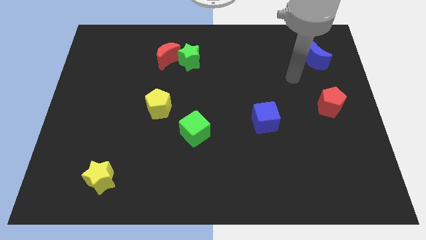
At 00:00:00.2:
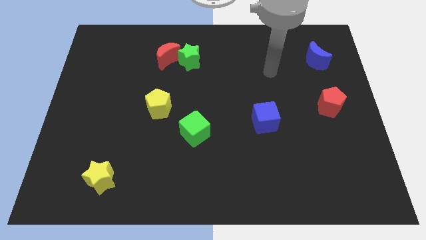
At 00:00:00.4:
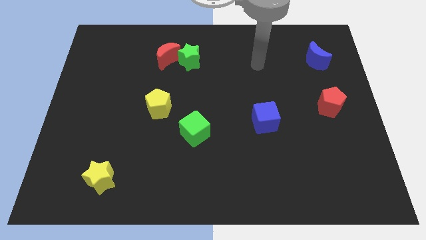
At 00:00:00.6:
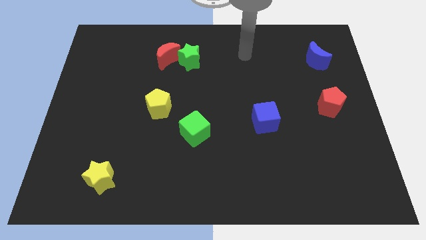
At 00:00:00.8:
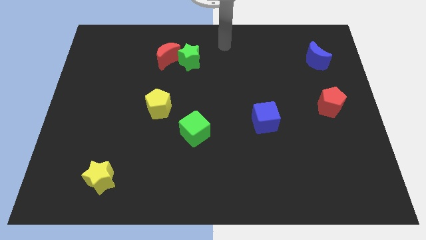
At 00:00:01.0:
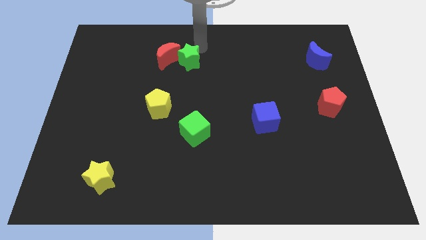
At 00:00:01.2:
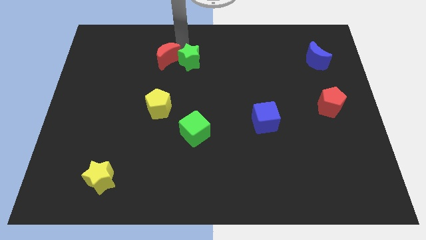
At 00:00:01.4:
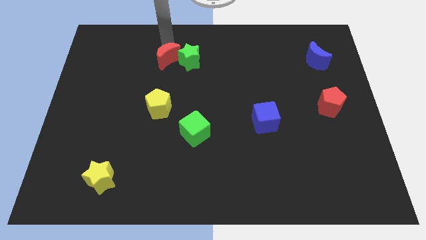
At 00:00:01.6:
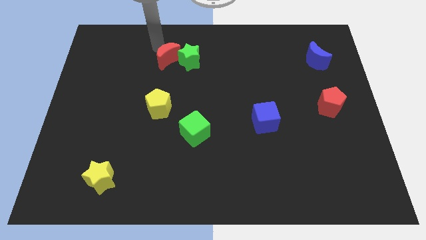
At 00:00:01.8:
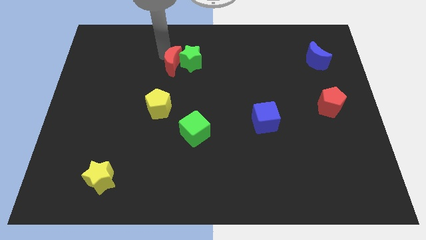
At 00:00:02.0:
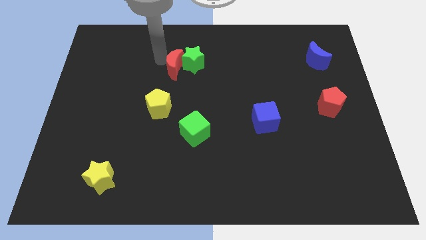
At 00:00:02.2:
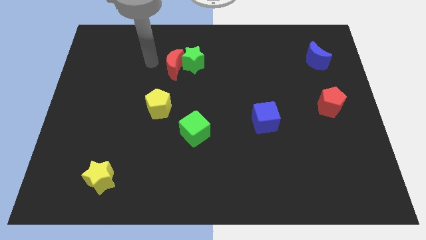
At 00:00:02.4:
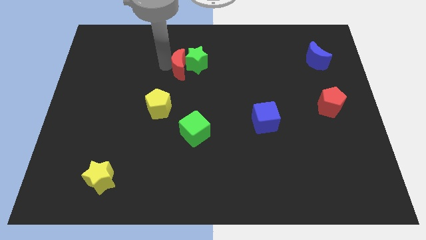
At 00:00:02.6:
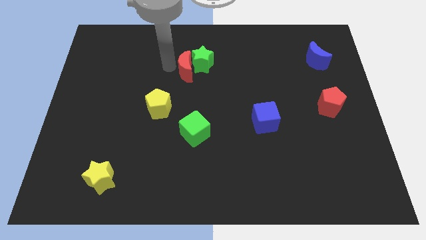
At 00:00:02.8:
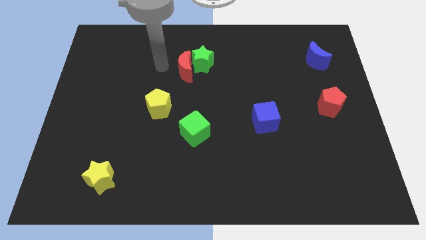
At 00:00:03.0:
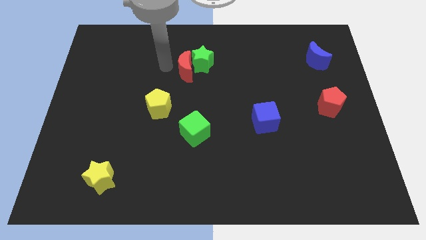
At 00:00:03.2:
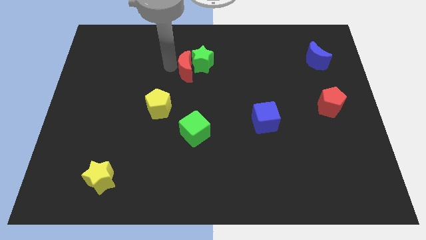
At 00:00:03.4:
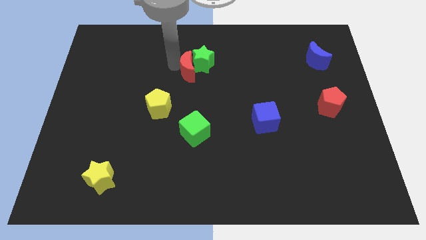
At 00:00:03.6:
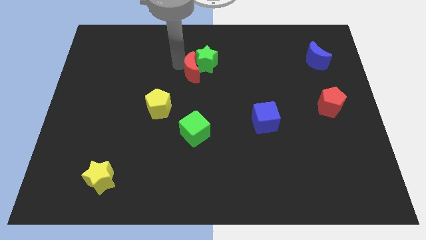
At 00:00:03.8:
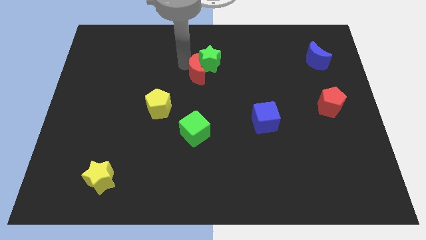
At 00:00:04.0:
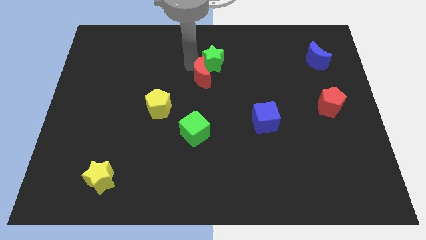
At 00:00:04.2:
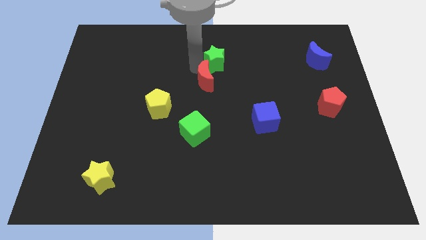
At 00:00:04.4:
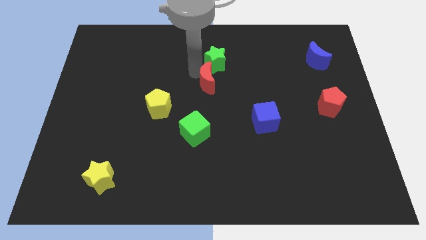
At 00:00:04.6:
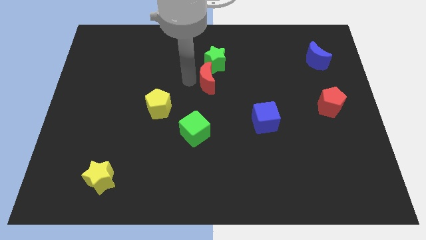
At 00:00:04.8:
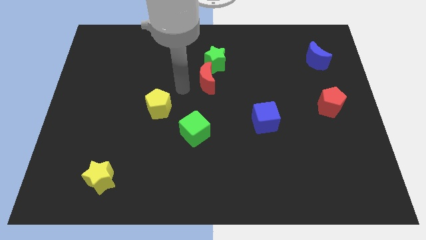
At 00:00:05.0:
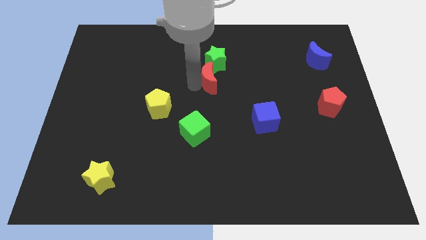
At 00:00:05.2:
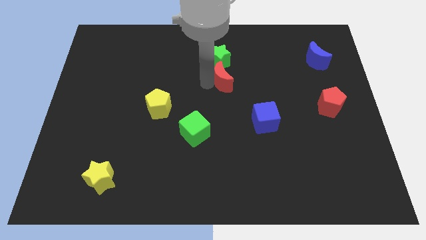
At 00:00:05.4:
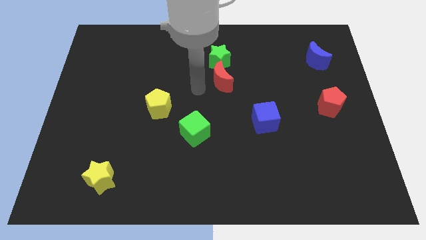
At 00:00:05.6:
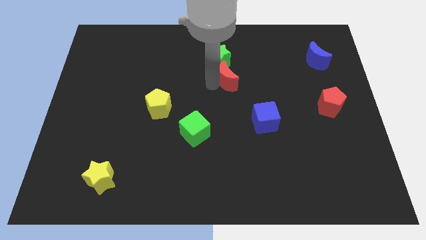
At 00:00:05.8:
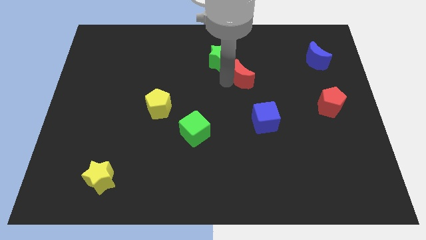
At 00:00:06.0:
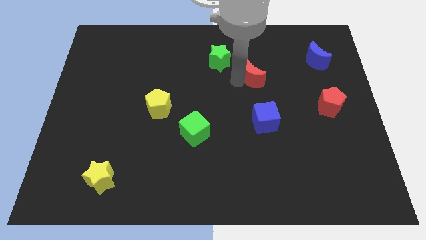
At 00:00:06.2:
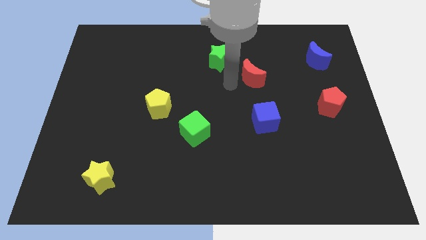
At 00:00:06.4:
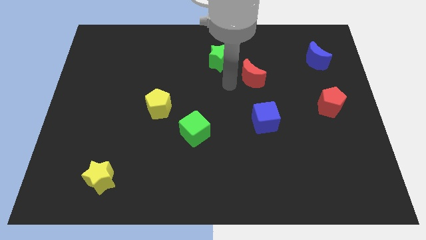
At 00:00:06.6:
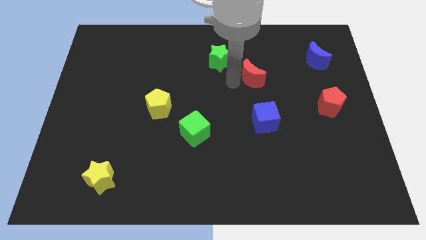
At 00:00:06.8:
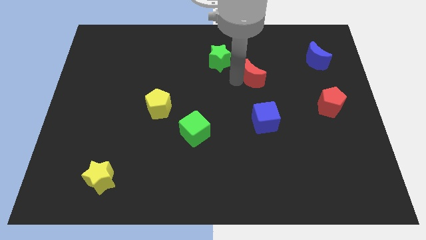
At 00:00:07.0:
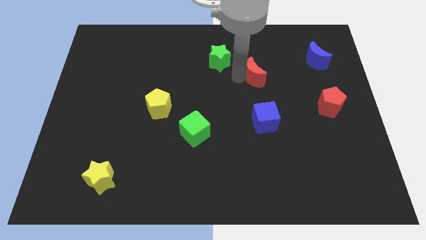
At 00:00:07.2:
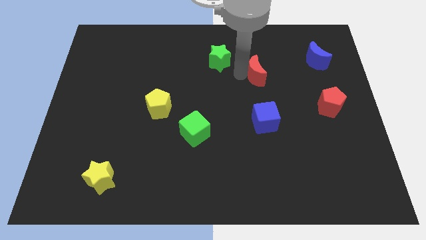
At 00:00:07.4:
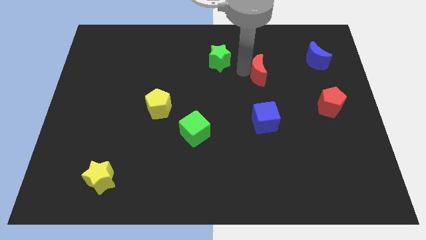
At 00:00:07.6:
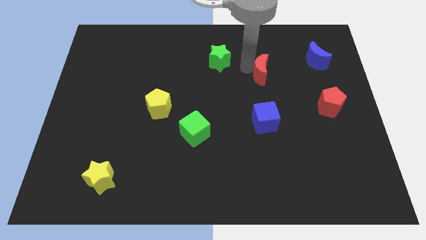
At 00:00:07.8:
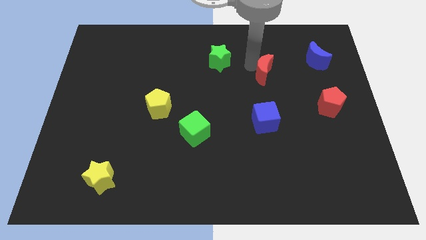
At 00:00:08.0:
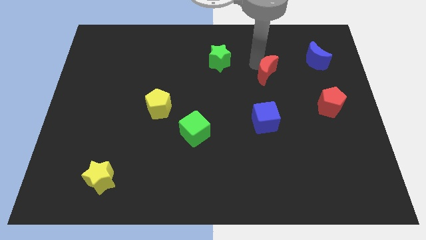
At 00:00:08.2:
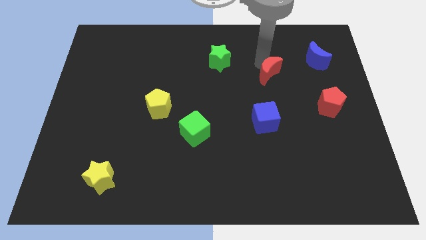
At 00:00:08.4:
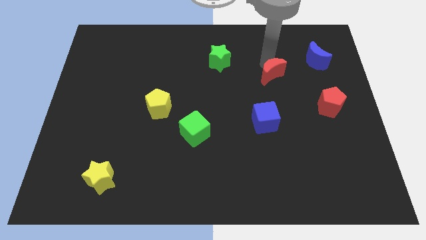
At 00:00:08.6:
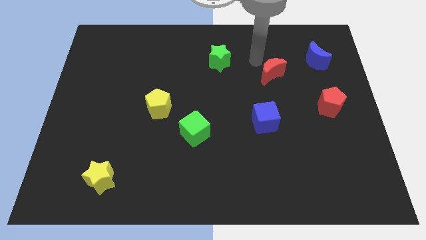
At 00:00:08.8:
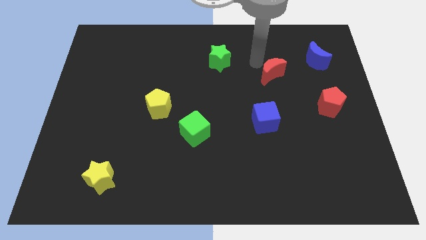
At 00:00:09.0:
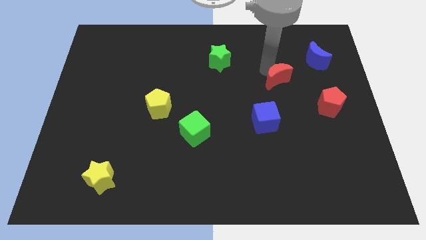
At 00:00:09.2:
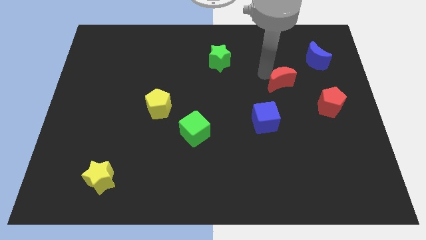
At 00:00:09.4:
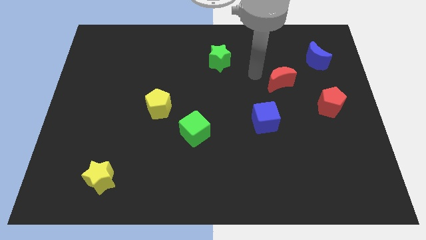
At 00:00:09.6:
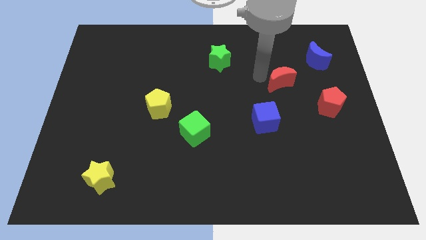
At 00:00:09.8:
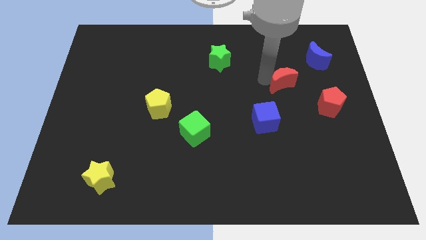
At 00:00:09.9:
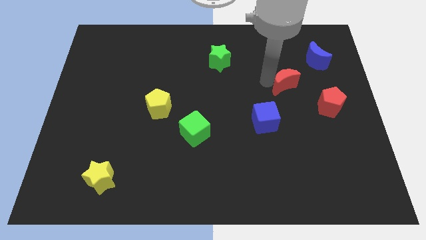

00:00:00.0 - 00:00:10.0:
push the red moon to the top left side of the red pentagon

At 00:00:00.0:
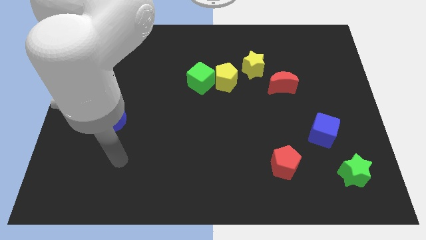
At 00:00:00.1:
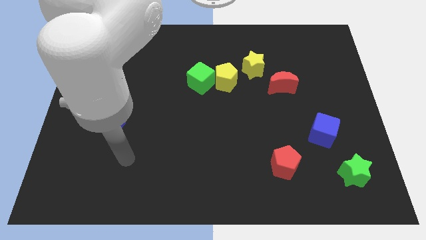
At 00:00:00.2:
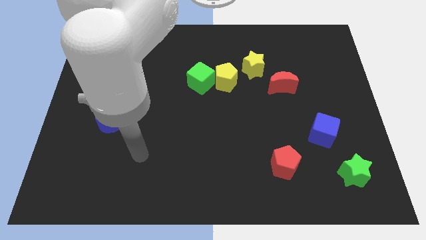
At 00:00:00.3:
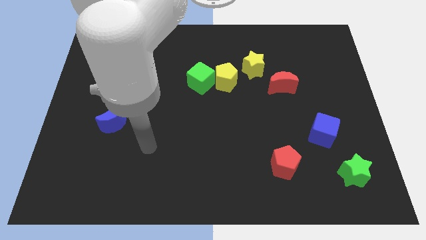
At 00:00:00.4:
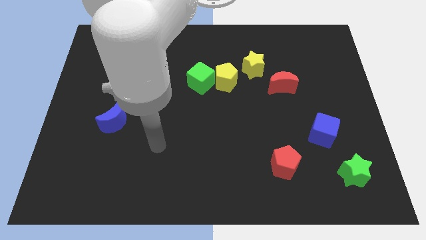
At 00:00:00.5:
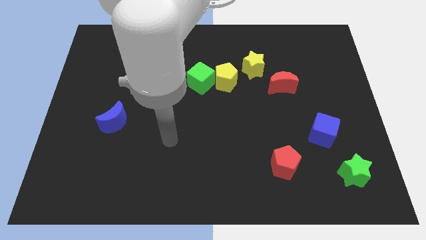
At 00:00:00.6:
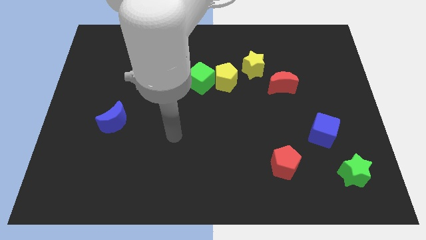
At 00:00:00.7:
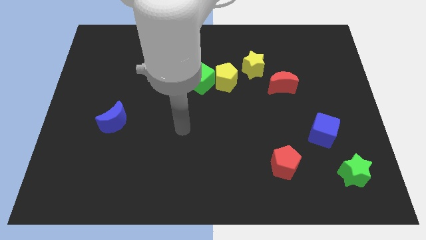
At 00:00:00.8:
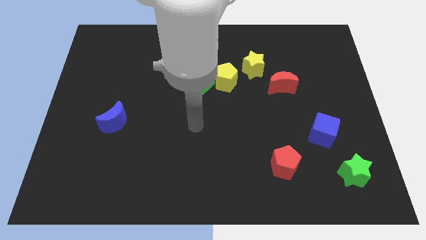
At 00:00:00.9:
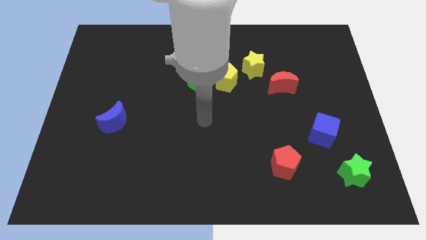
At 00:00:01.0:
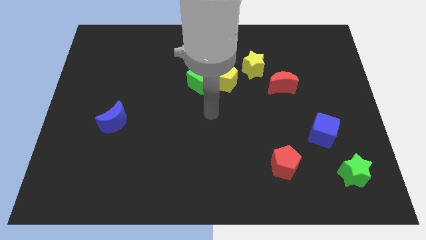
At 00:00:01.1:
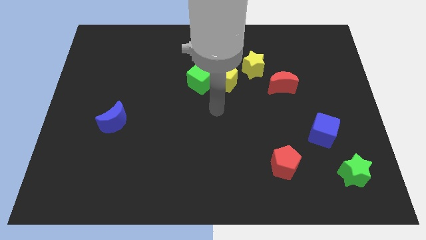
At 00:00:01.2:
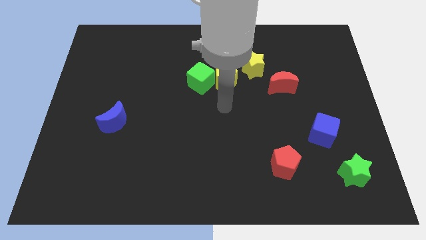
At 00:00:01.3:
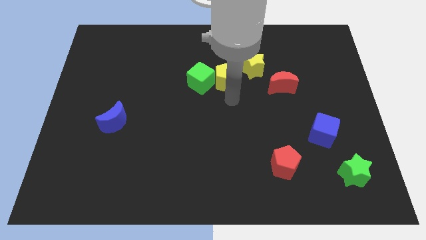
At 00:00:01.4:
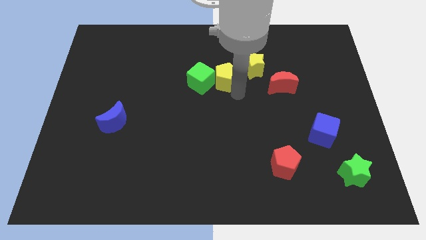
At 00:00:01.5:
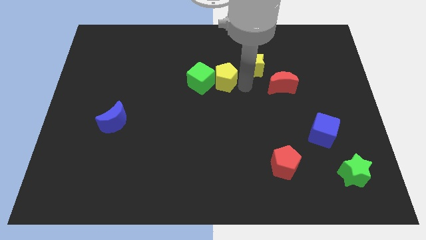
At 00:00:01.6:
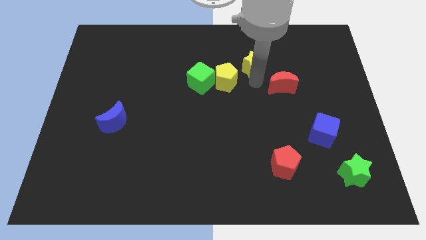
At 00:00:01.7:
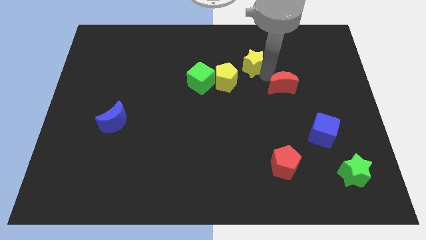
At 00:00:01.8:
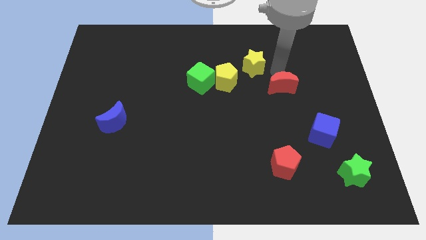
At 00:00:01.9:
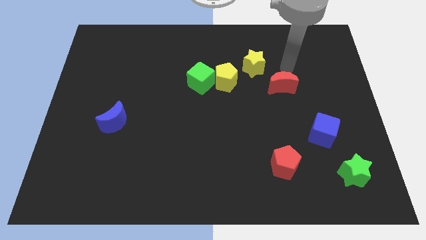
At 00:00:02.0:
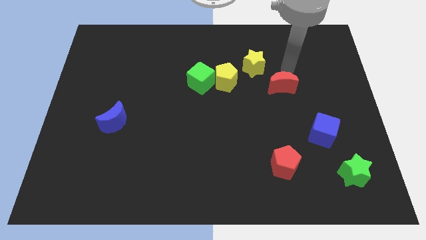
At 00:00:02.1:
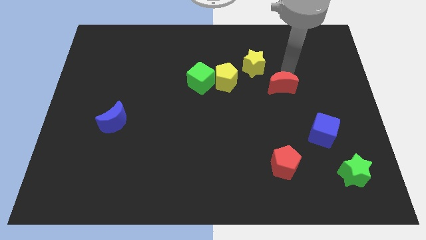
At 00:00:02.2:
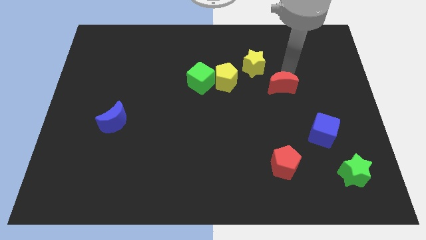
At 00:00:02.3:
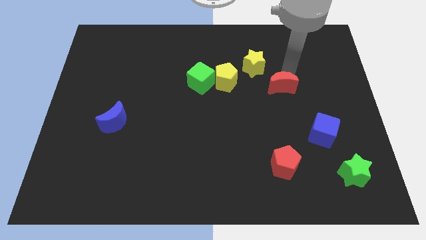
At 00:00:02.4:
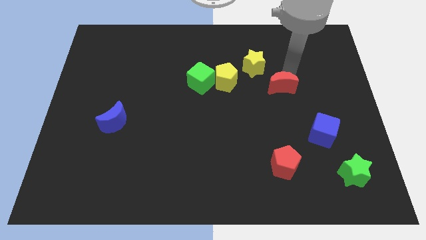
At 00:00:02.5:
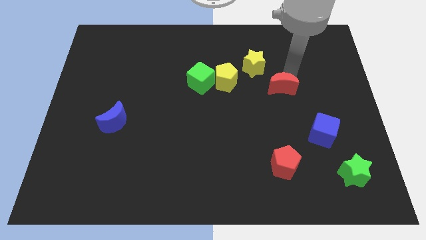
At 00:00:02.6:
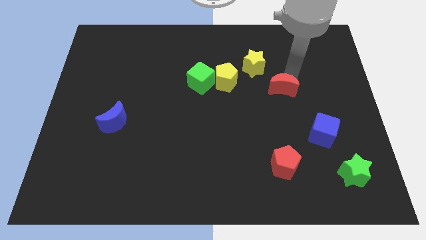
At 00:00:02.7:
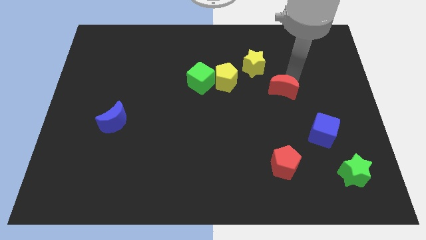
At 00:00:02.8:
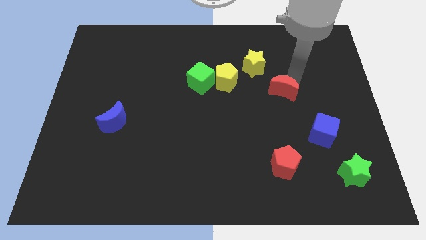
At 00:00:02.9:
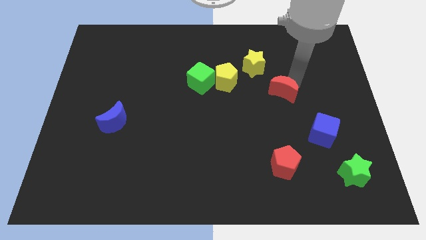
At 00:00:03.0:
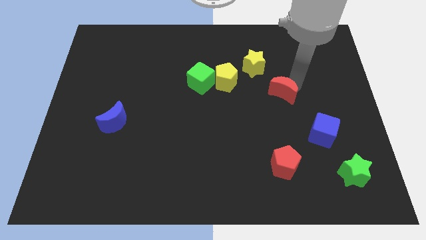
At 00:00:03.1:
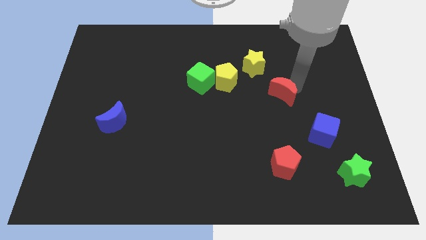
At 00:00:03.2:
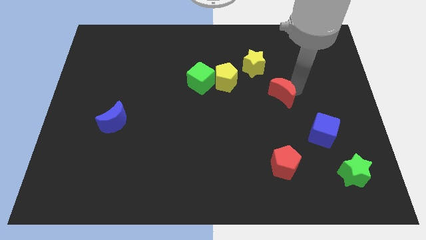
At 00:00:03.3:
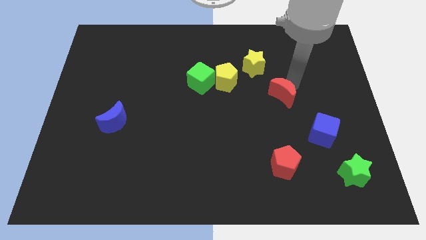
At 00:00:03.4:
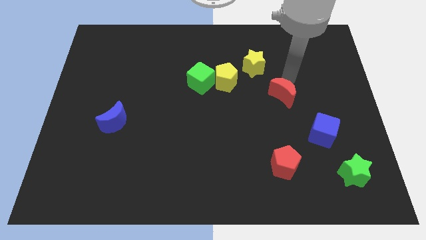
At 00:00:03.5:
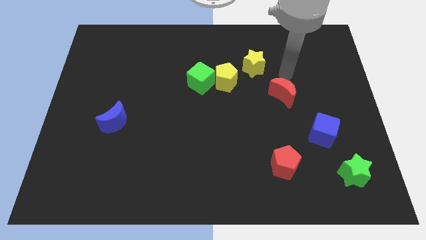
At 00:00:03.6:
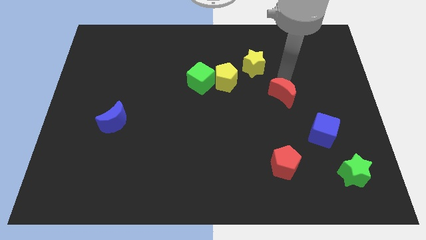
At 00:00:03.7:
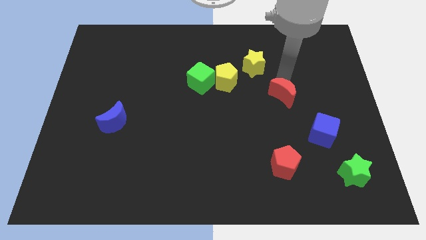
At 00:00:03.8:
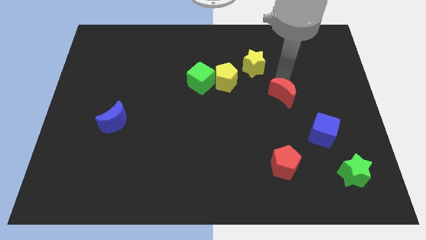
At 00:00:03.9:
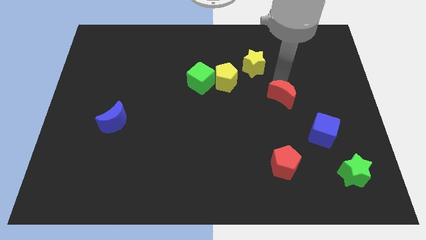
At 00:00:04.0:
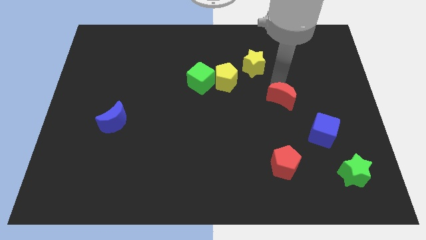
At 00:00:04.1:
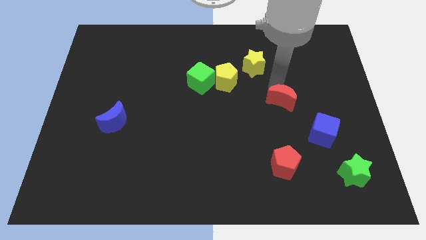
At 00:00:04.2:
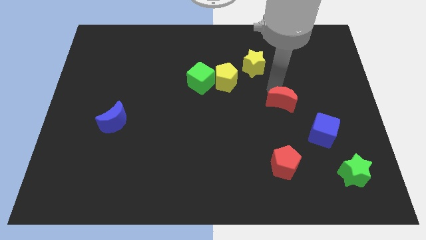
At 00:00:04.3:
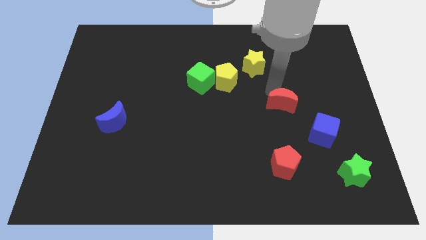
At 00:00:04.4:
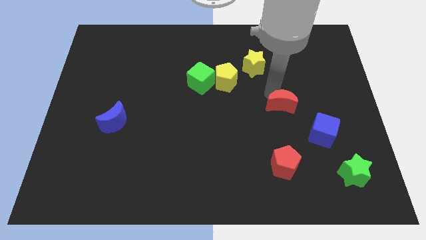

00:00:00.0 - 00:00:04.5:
slide the red moon to the top side of the red pentagon
